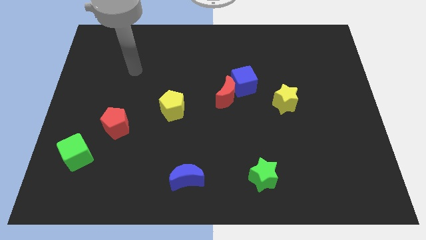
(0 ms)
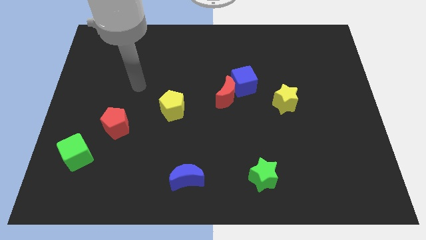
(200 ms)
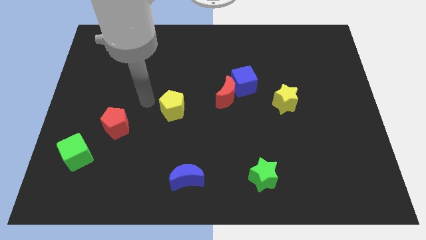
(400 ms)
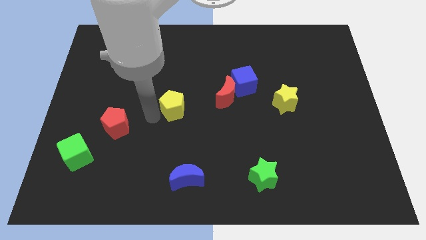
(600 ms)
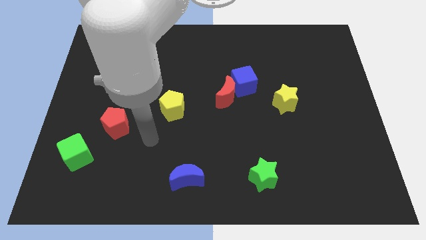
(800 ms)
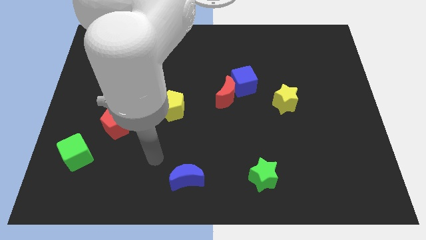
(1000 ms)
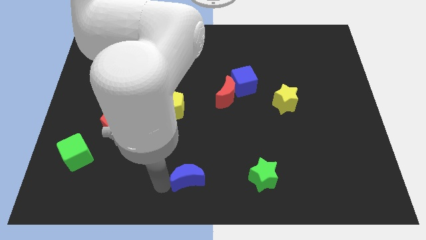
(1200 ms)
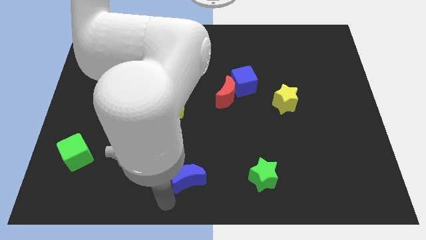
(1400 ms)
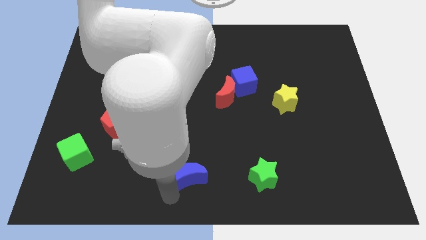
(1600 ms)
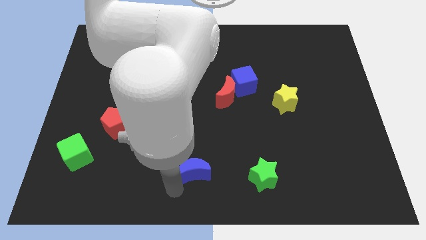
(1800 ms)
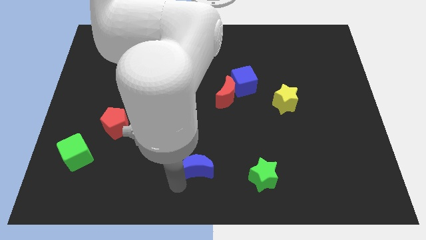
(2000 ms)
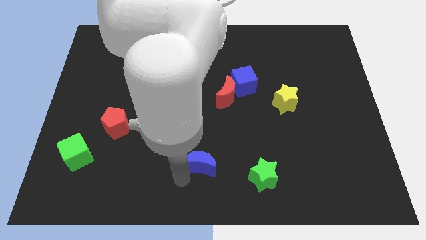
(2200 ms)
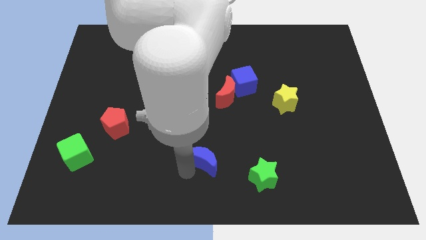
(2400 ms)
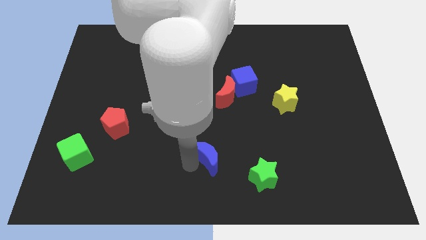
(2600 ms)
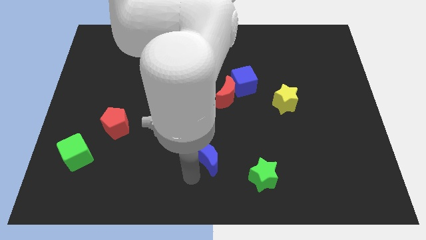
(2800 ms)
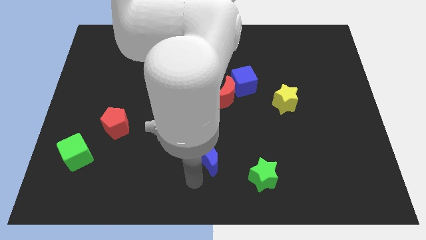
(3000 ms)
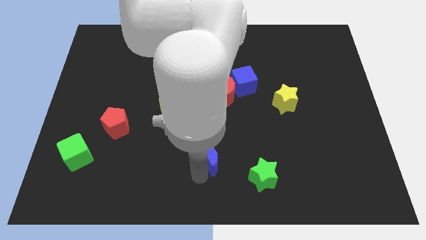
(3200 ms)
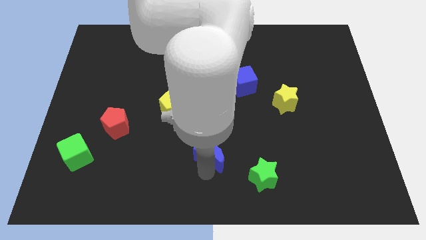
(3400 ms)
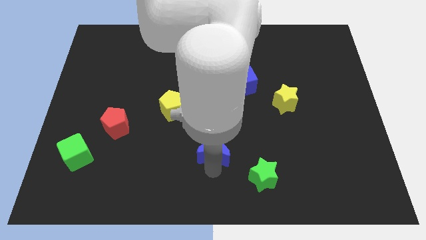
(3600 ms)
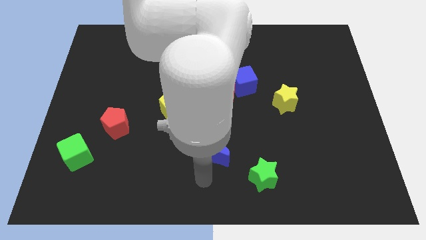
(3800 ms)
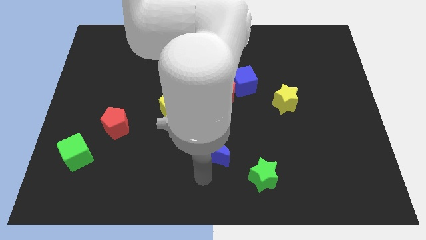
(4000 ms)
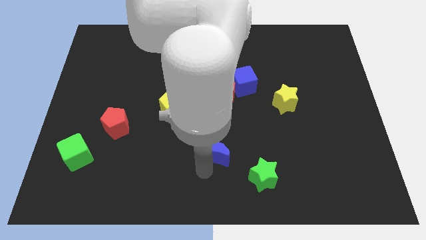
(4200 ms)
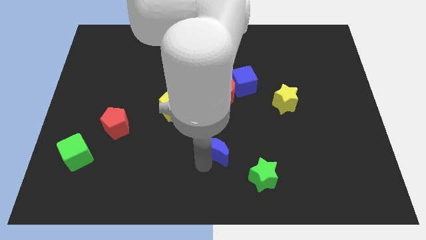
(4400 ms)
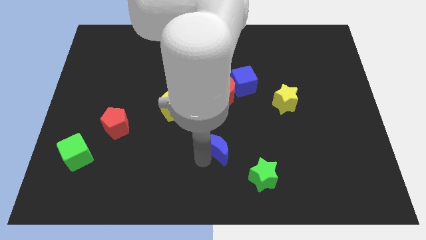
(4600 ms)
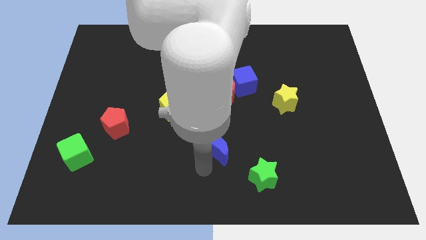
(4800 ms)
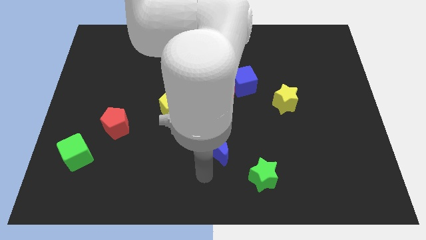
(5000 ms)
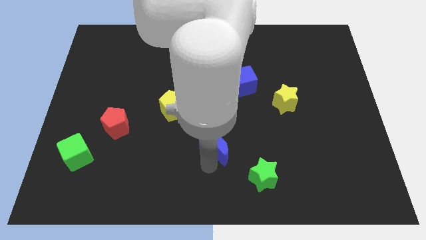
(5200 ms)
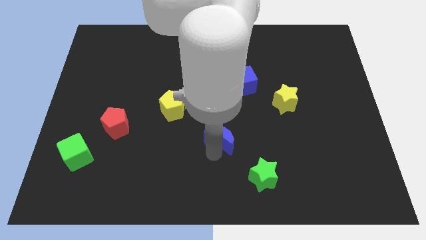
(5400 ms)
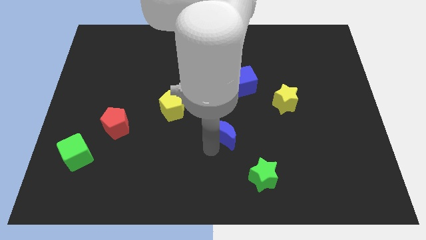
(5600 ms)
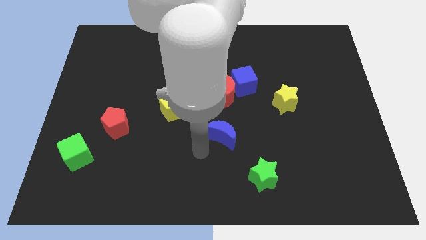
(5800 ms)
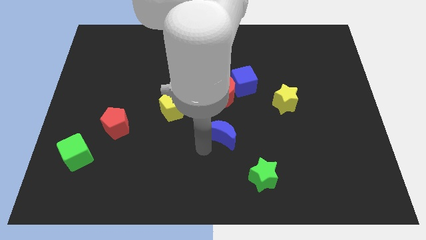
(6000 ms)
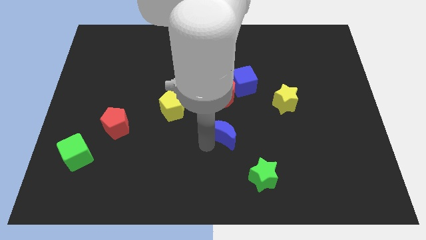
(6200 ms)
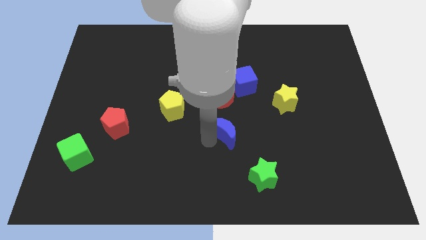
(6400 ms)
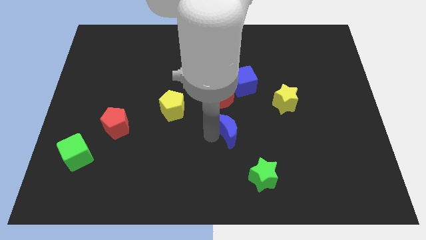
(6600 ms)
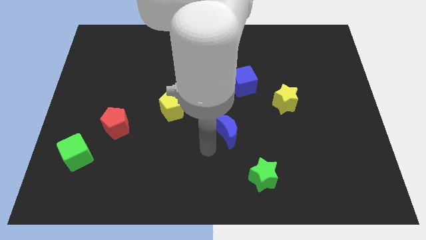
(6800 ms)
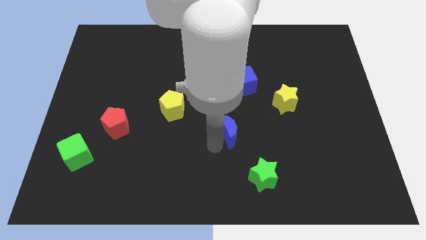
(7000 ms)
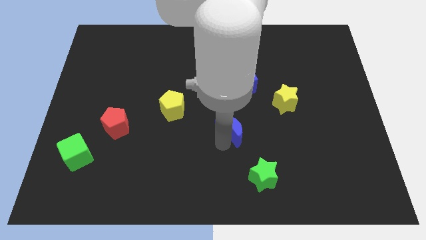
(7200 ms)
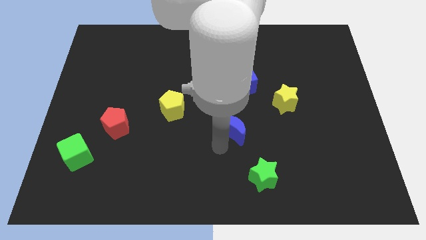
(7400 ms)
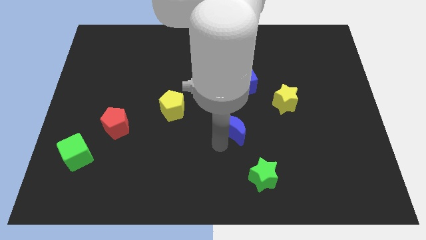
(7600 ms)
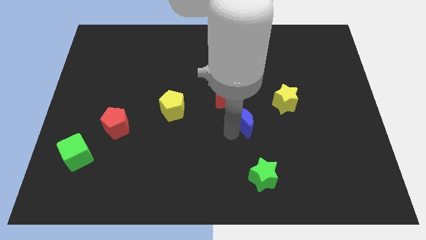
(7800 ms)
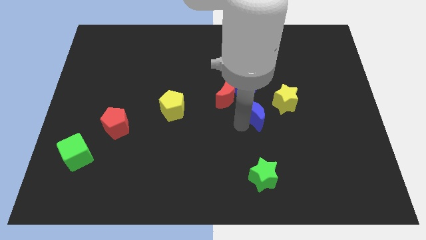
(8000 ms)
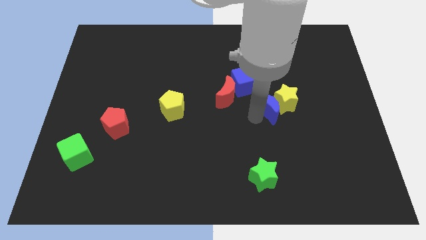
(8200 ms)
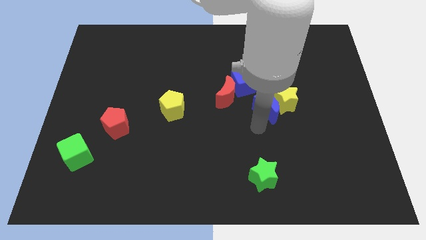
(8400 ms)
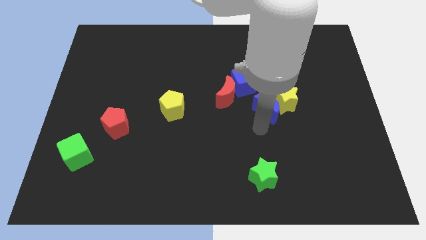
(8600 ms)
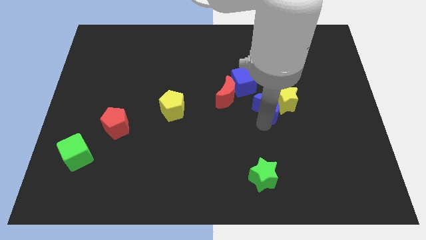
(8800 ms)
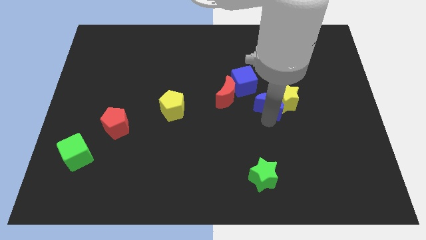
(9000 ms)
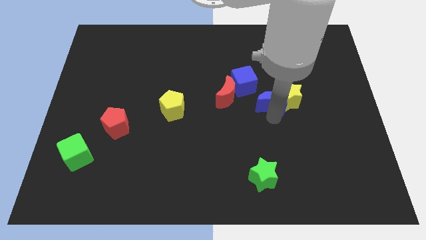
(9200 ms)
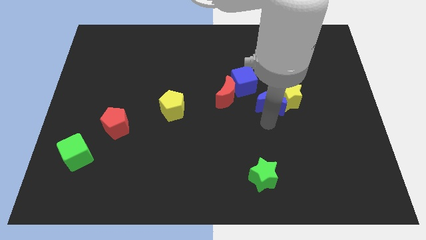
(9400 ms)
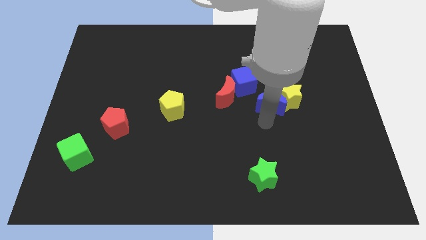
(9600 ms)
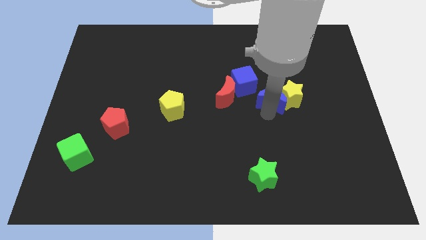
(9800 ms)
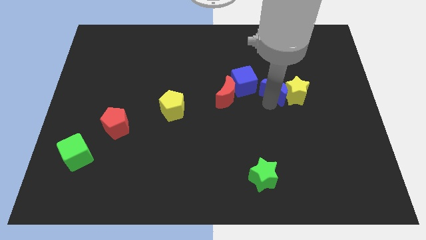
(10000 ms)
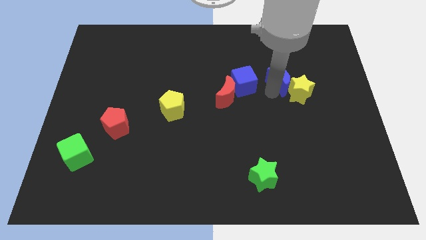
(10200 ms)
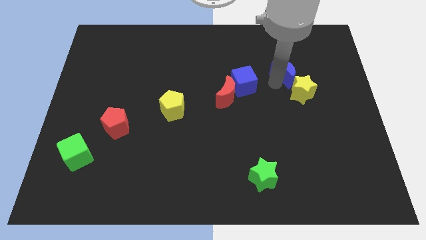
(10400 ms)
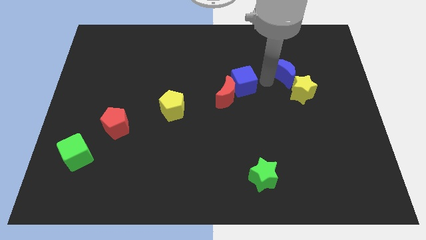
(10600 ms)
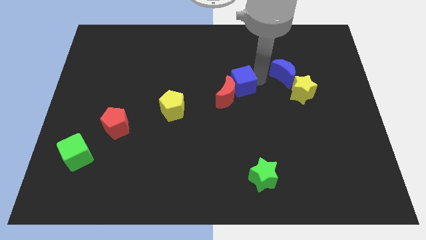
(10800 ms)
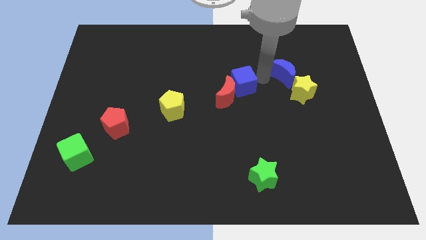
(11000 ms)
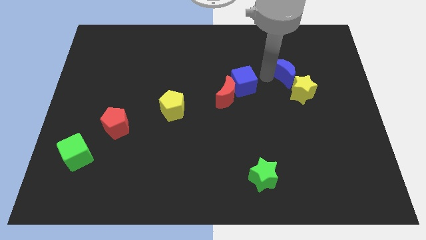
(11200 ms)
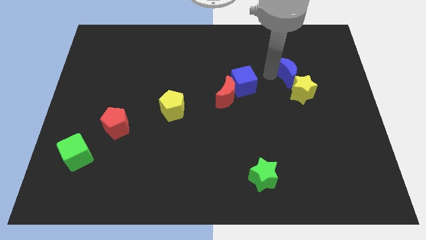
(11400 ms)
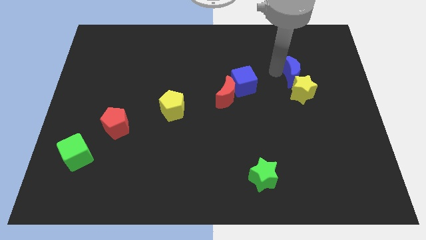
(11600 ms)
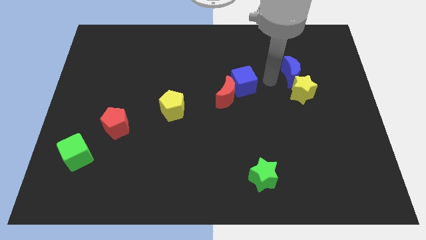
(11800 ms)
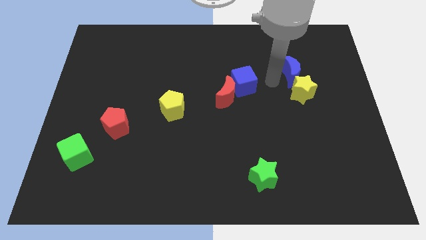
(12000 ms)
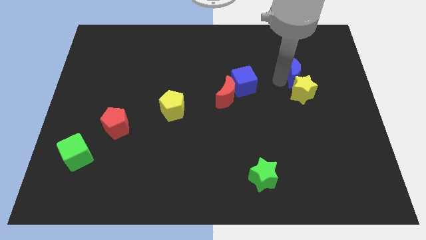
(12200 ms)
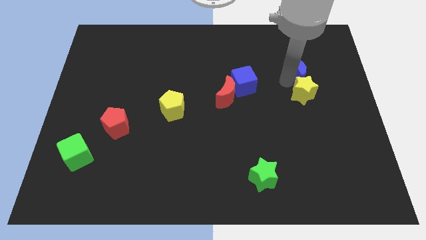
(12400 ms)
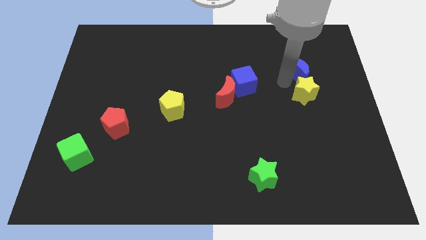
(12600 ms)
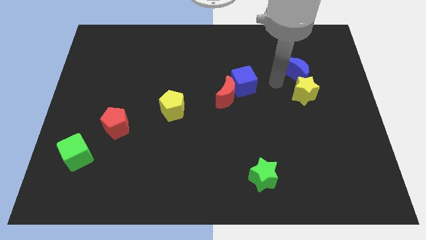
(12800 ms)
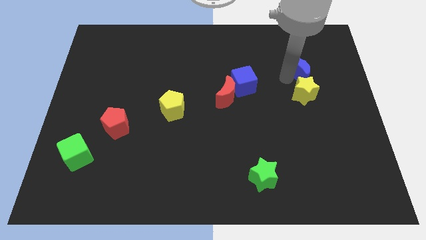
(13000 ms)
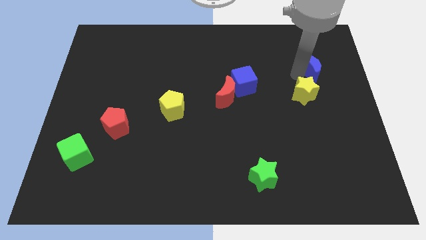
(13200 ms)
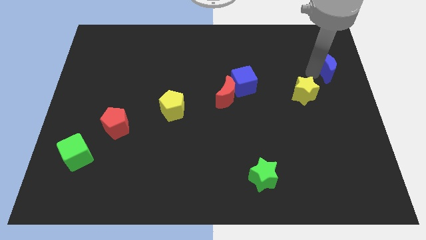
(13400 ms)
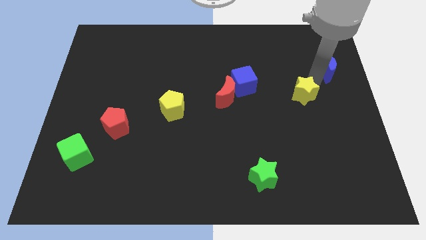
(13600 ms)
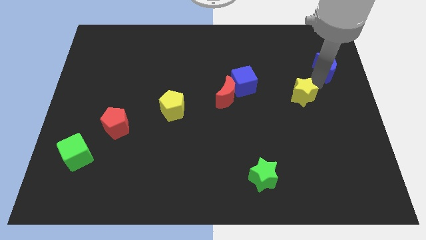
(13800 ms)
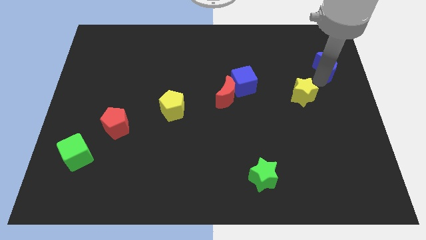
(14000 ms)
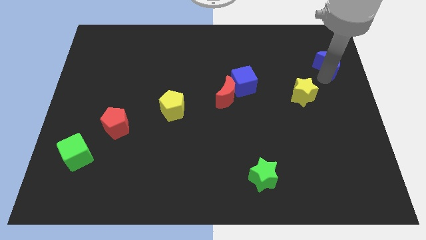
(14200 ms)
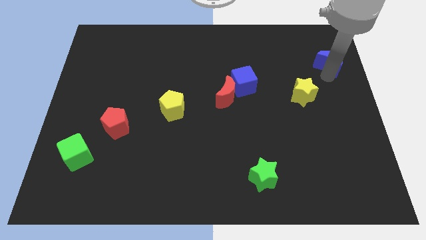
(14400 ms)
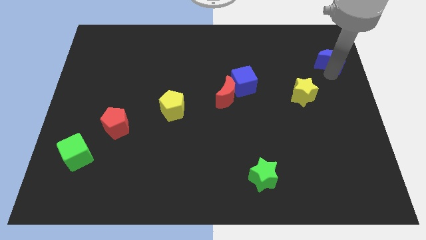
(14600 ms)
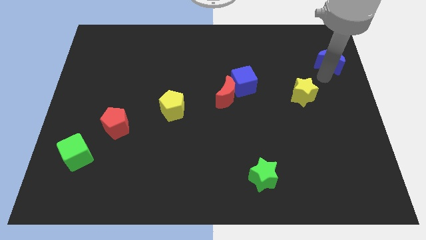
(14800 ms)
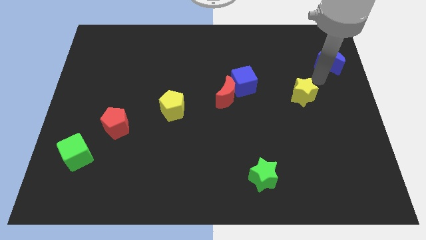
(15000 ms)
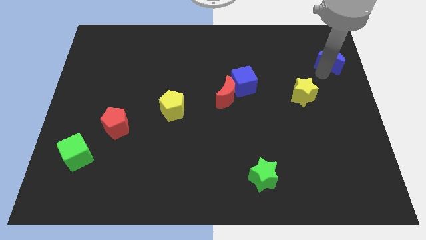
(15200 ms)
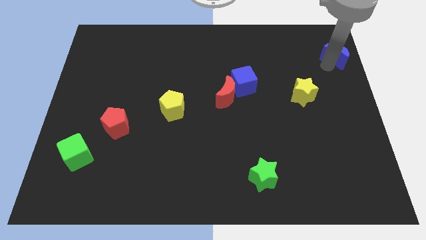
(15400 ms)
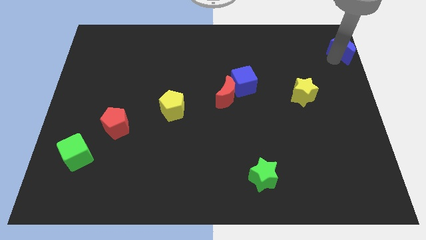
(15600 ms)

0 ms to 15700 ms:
move the blue moon to the top right
